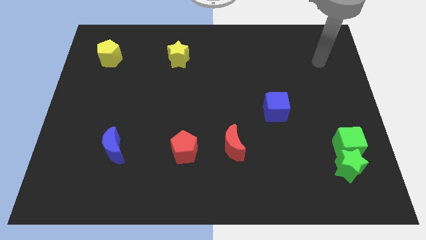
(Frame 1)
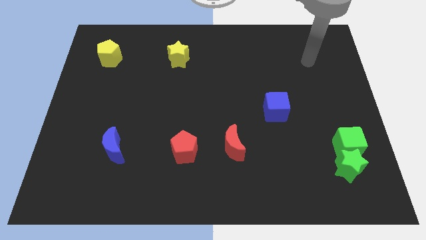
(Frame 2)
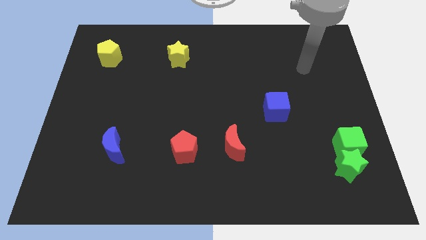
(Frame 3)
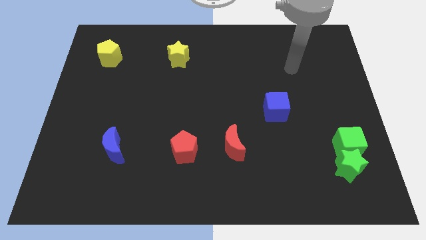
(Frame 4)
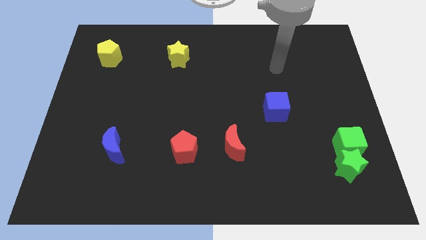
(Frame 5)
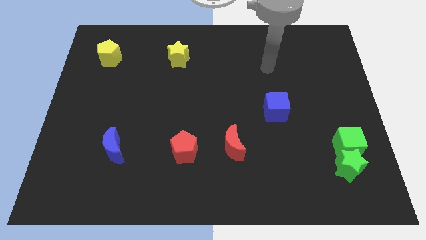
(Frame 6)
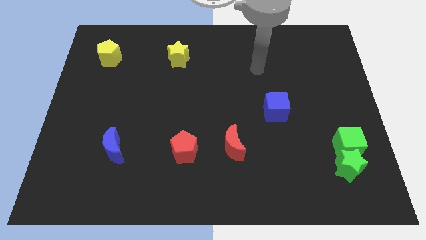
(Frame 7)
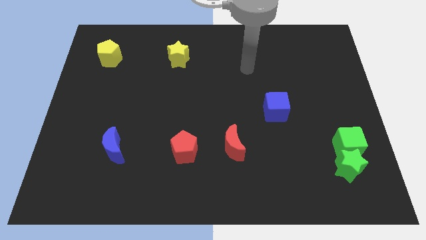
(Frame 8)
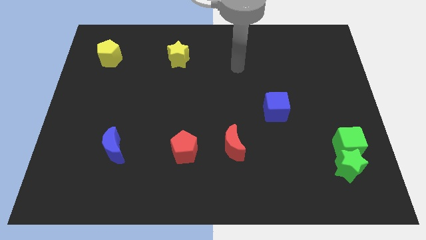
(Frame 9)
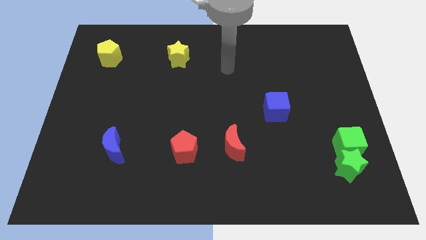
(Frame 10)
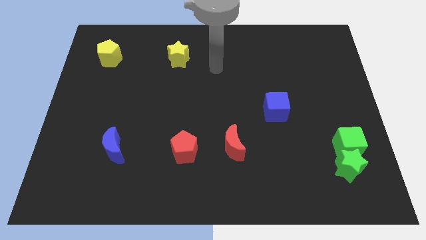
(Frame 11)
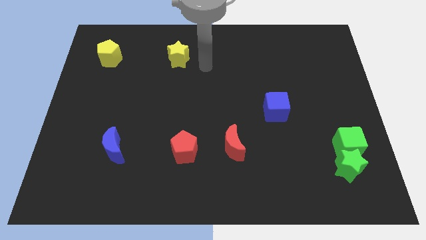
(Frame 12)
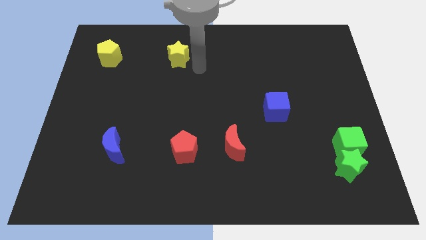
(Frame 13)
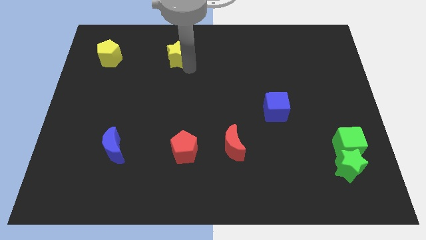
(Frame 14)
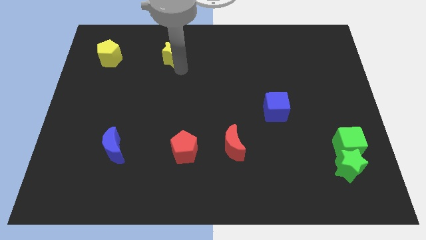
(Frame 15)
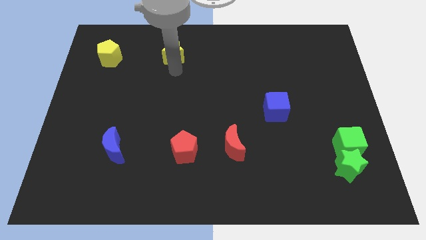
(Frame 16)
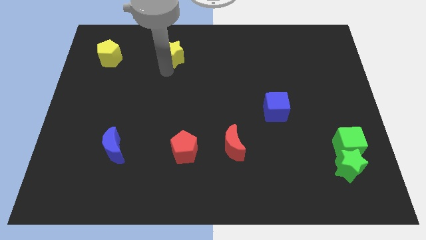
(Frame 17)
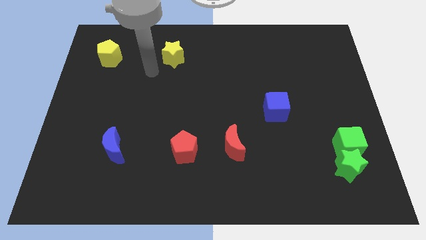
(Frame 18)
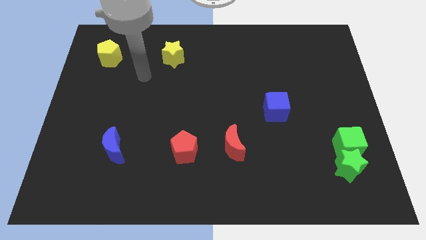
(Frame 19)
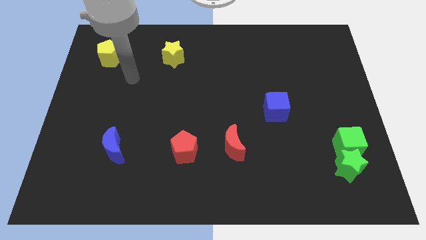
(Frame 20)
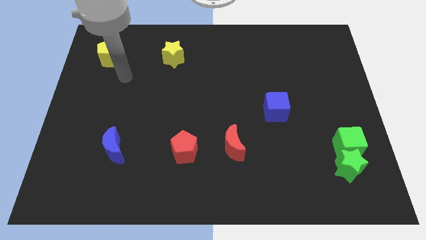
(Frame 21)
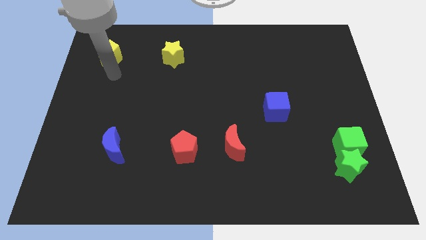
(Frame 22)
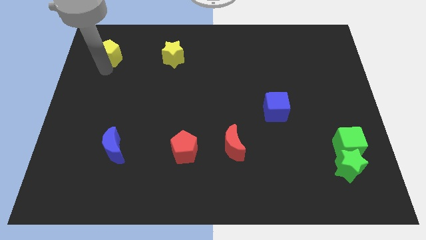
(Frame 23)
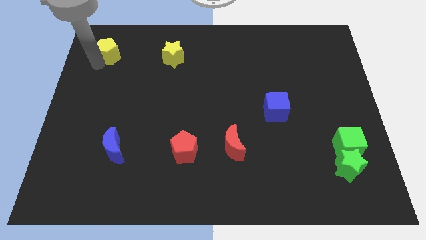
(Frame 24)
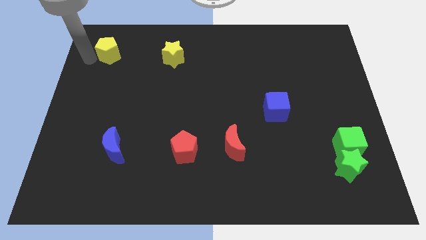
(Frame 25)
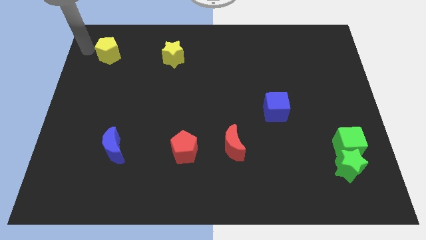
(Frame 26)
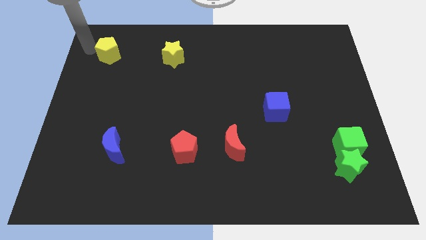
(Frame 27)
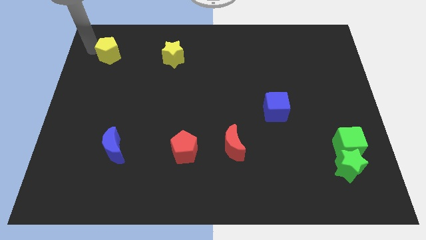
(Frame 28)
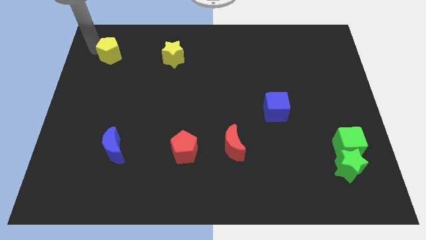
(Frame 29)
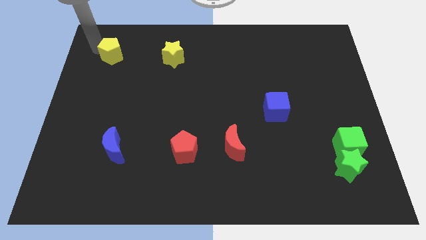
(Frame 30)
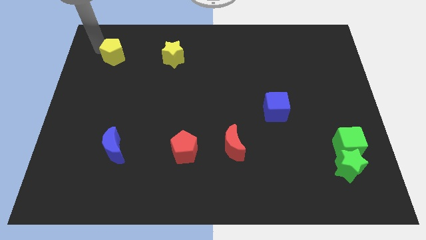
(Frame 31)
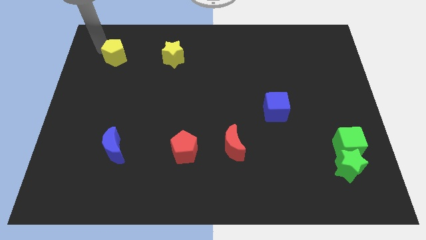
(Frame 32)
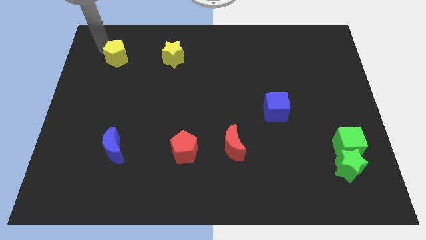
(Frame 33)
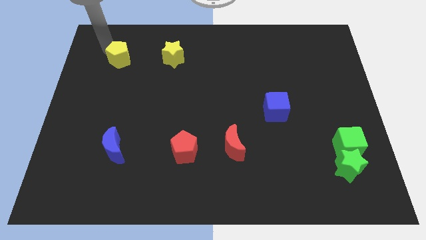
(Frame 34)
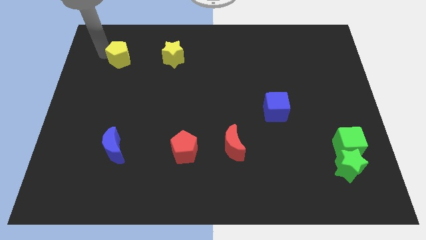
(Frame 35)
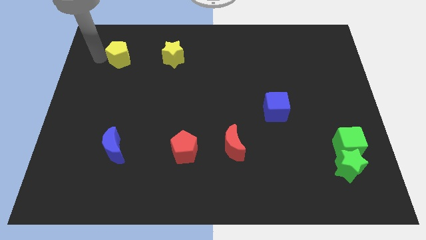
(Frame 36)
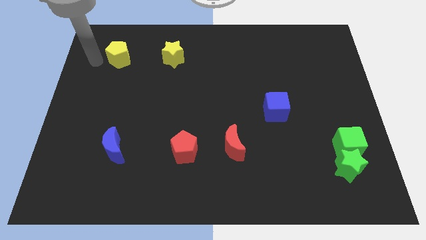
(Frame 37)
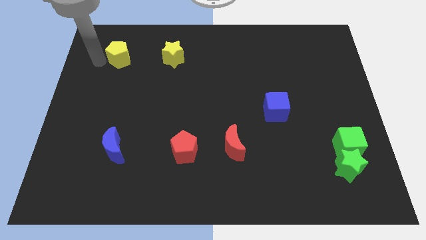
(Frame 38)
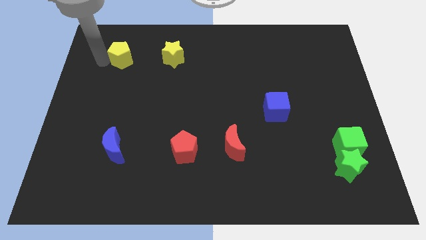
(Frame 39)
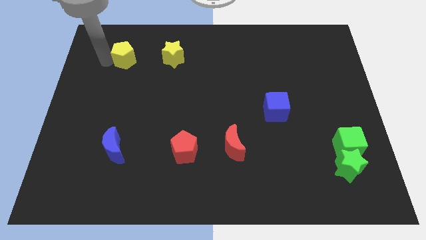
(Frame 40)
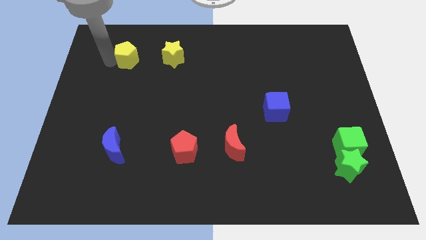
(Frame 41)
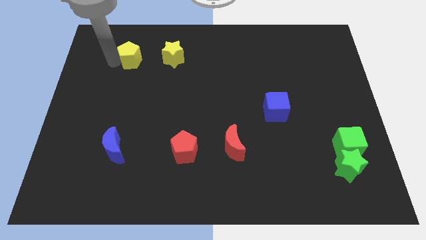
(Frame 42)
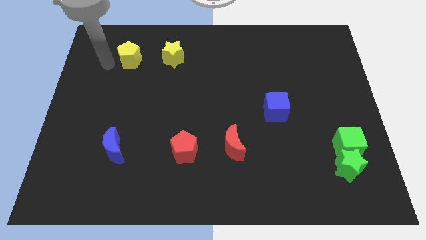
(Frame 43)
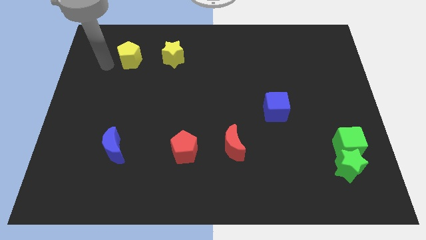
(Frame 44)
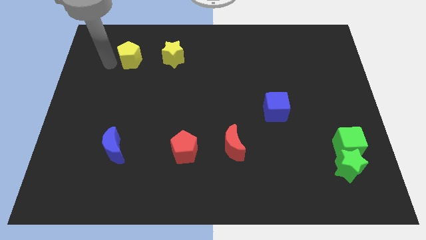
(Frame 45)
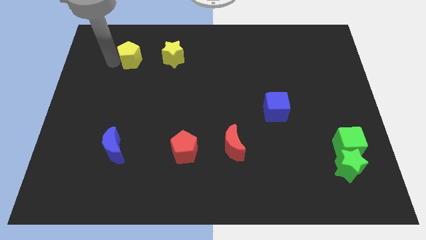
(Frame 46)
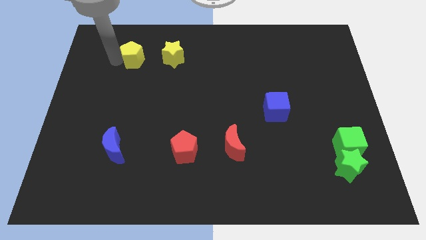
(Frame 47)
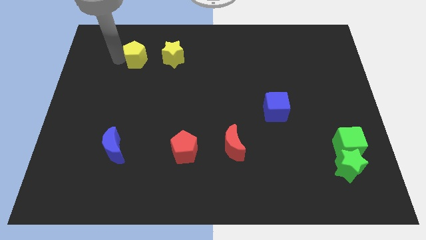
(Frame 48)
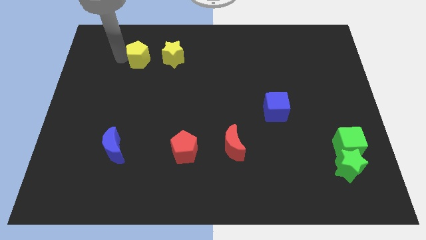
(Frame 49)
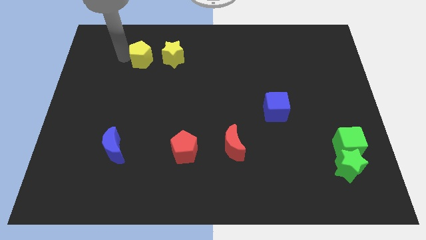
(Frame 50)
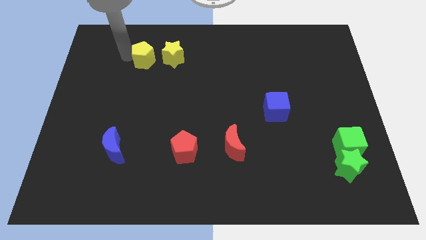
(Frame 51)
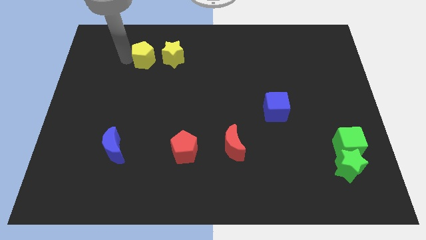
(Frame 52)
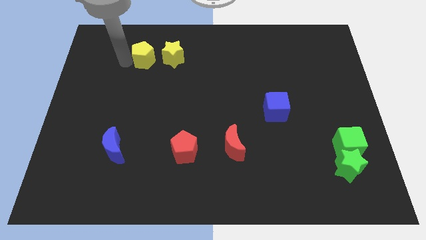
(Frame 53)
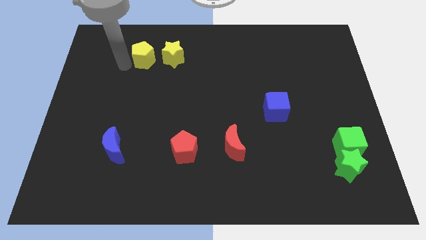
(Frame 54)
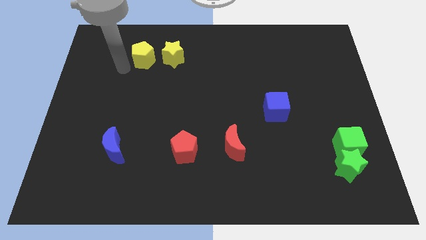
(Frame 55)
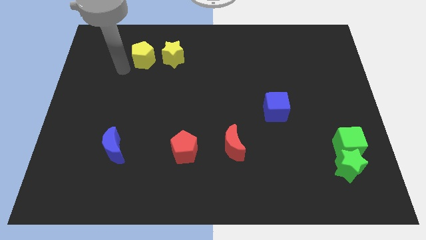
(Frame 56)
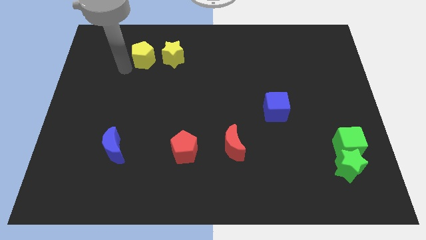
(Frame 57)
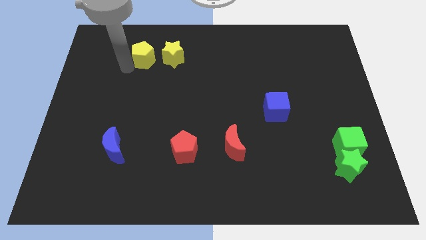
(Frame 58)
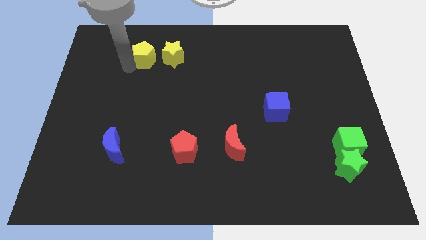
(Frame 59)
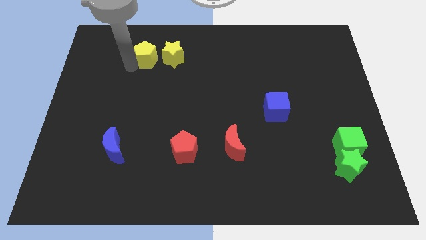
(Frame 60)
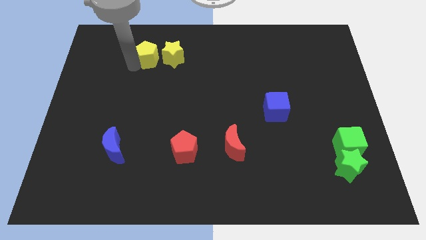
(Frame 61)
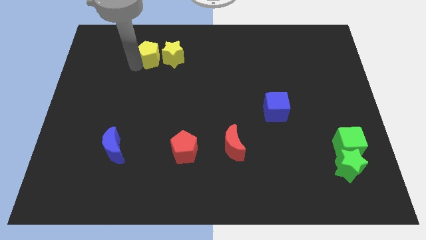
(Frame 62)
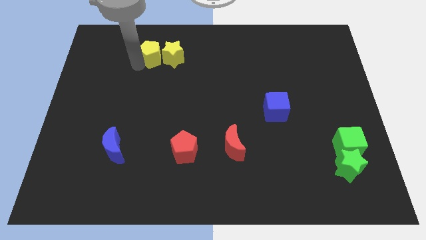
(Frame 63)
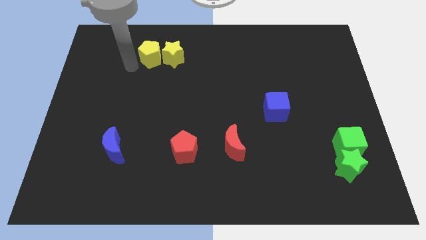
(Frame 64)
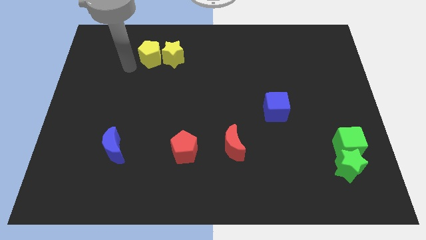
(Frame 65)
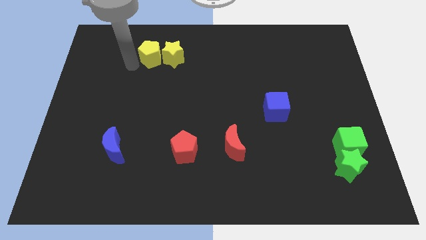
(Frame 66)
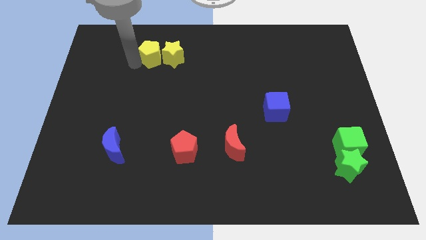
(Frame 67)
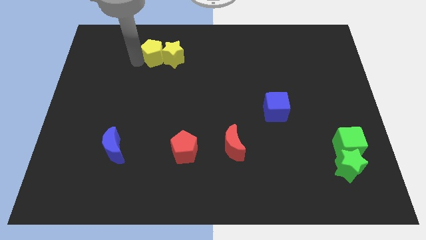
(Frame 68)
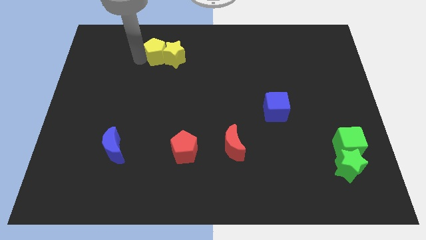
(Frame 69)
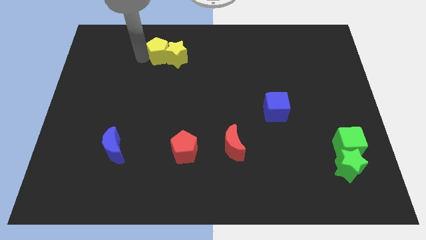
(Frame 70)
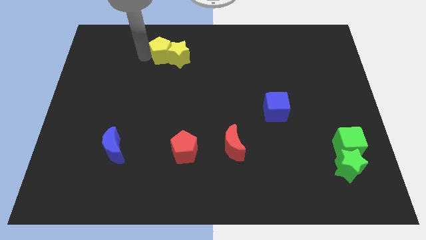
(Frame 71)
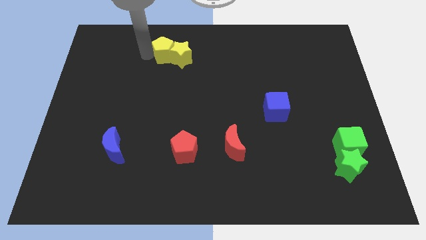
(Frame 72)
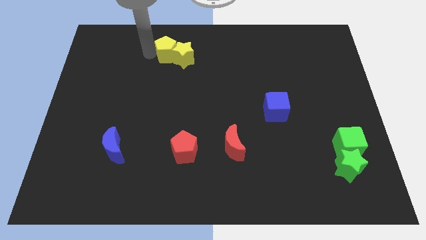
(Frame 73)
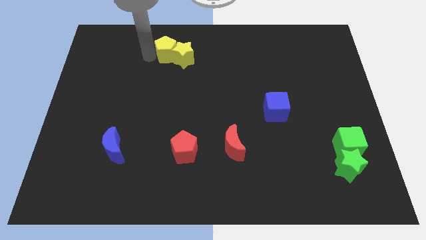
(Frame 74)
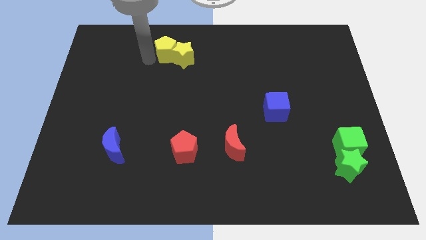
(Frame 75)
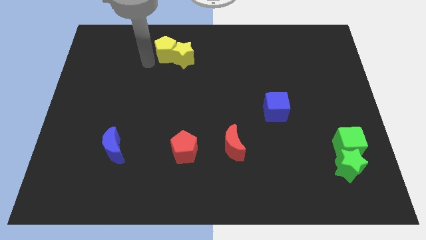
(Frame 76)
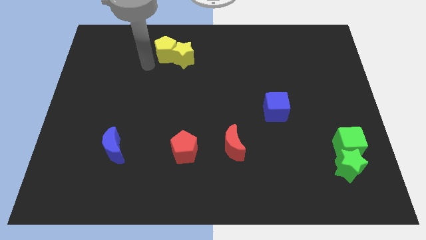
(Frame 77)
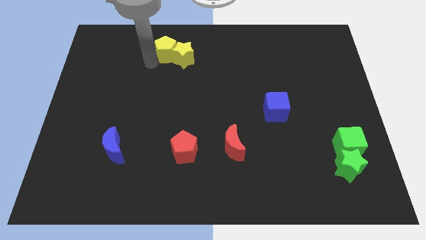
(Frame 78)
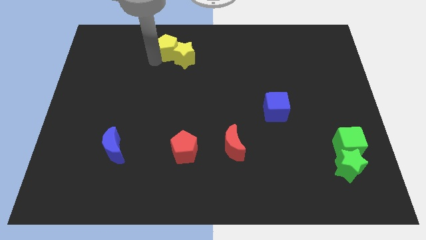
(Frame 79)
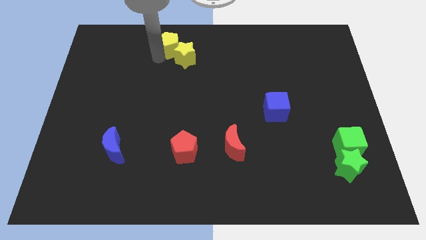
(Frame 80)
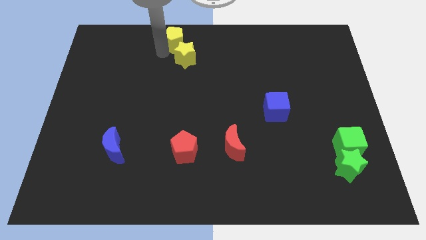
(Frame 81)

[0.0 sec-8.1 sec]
move the yellow pentagon to the top side
